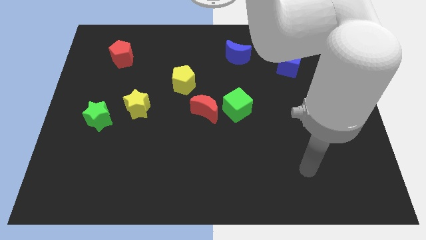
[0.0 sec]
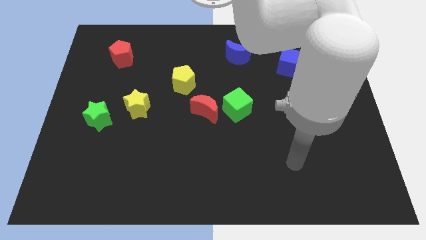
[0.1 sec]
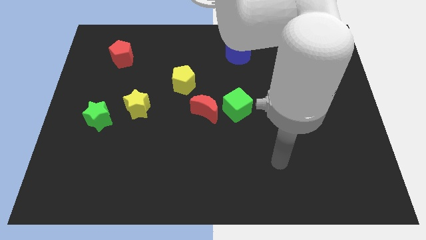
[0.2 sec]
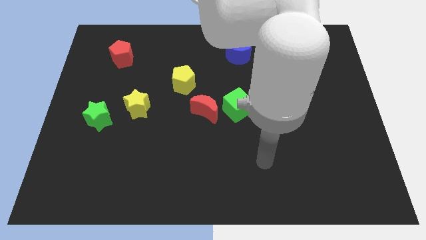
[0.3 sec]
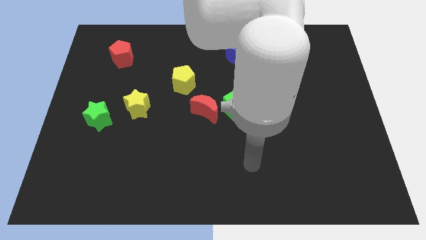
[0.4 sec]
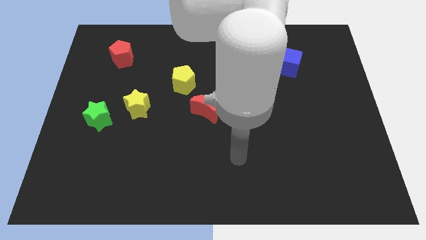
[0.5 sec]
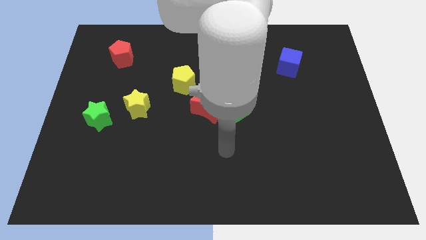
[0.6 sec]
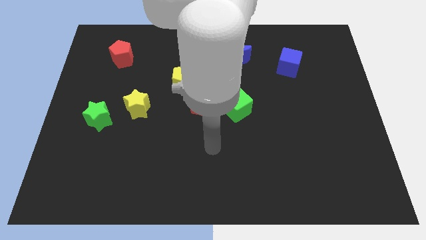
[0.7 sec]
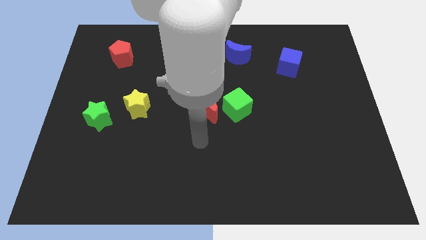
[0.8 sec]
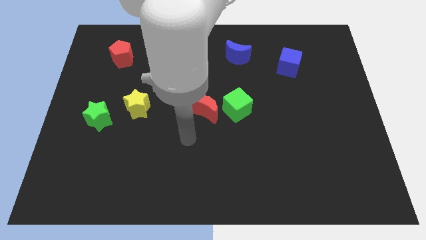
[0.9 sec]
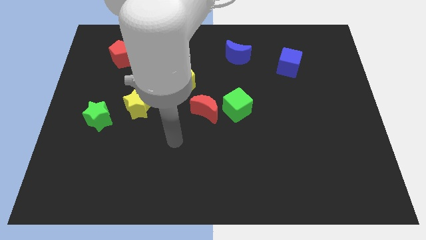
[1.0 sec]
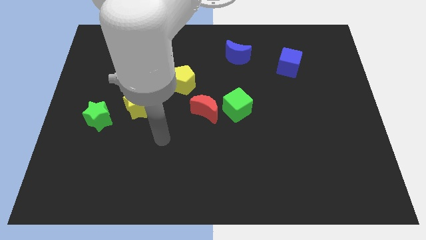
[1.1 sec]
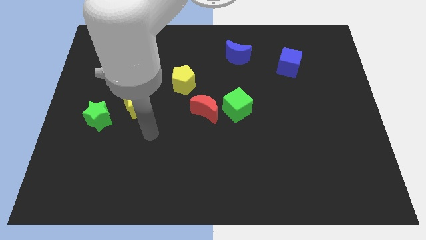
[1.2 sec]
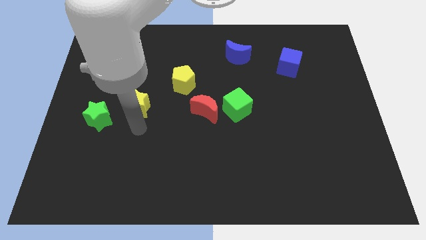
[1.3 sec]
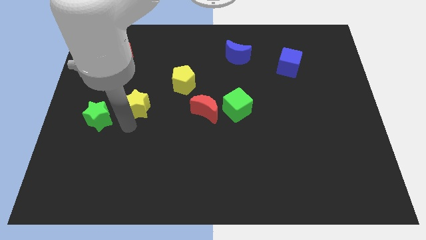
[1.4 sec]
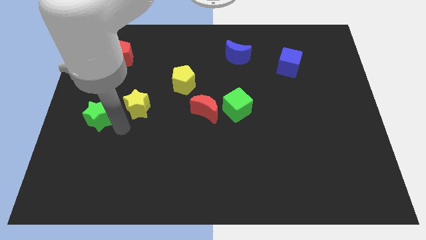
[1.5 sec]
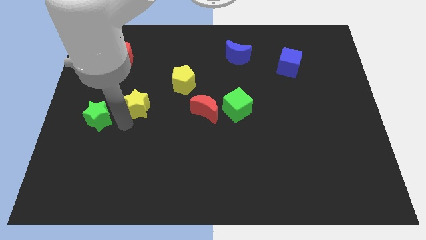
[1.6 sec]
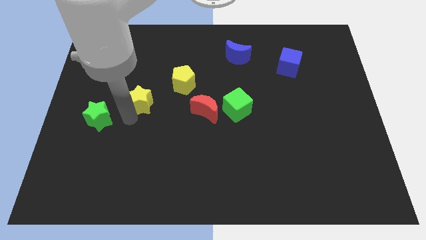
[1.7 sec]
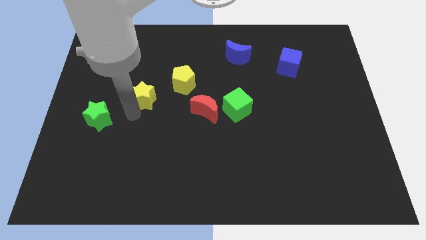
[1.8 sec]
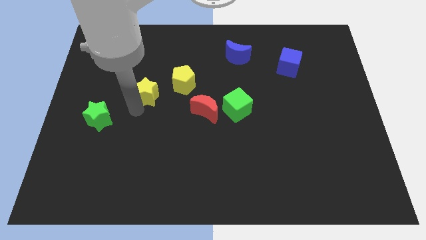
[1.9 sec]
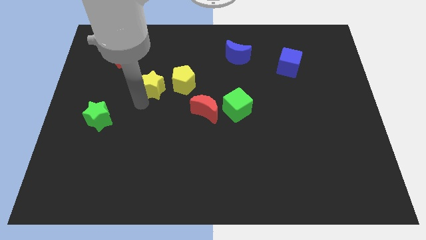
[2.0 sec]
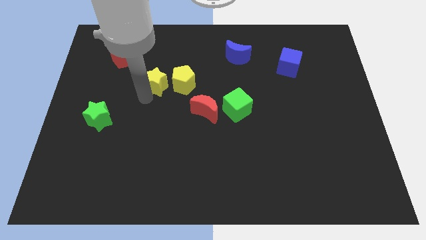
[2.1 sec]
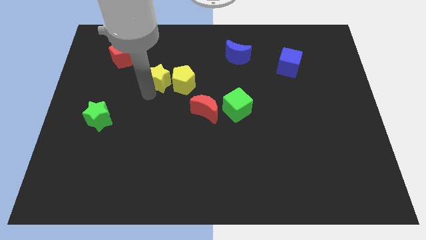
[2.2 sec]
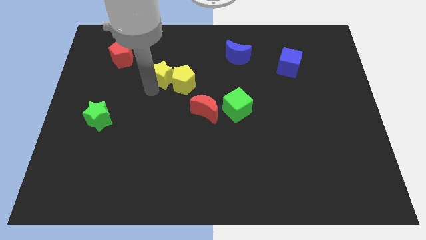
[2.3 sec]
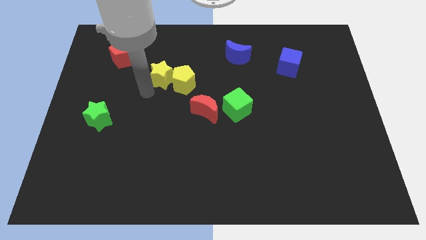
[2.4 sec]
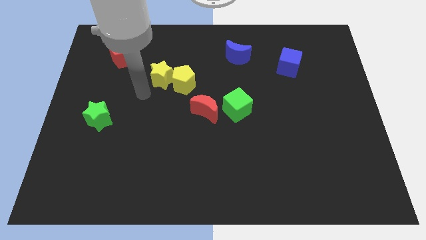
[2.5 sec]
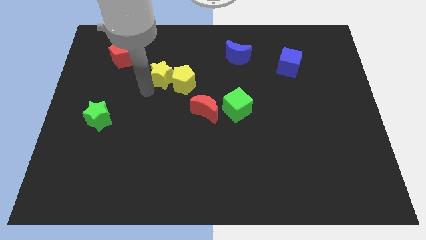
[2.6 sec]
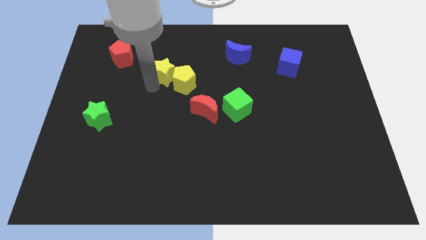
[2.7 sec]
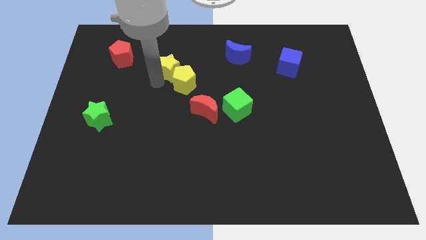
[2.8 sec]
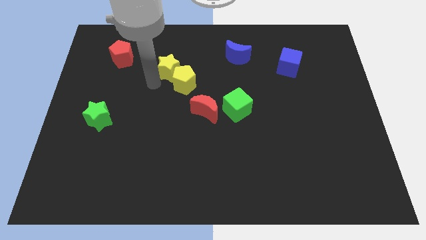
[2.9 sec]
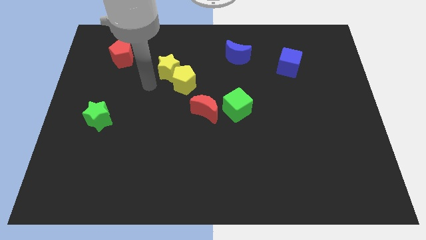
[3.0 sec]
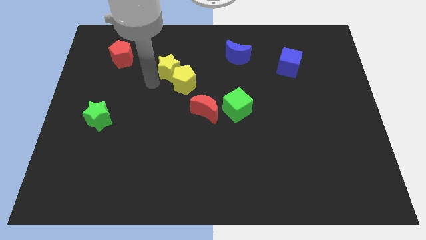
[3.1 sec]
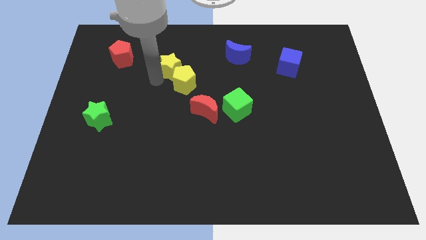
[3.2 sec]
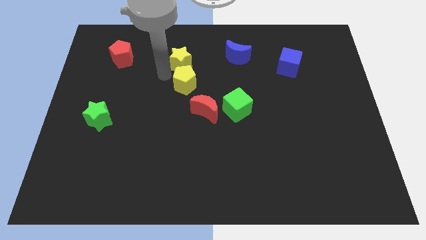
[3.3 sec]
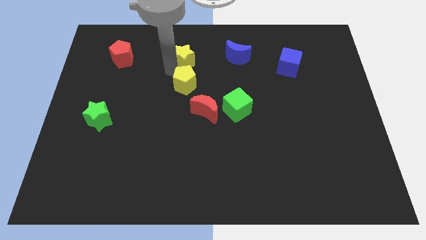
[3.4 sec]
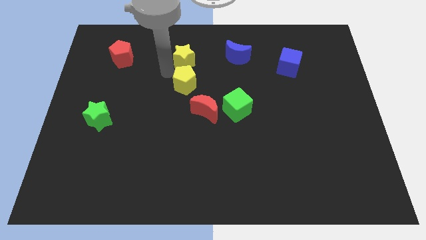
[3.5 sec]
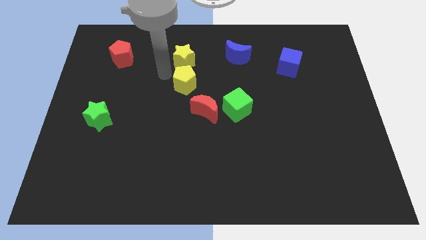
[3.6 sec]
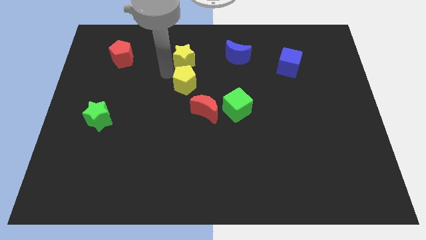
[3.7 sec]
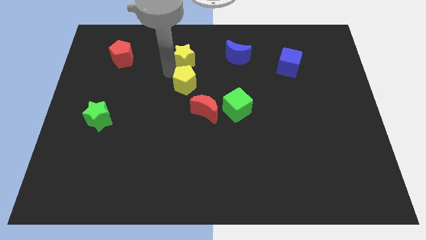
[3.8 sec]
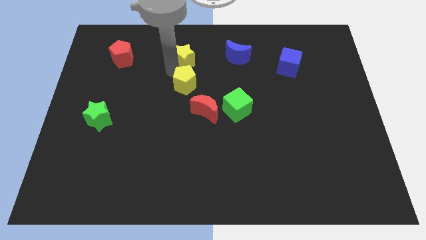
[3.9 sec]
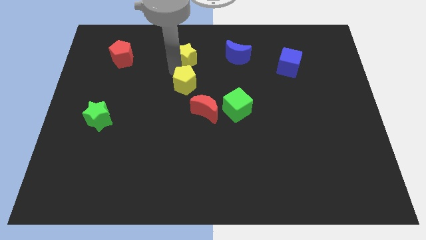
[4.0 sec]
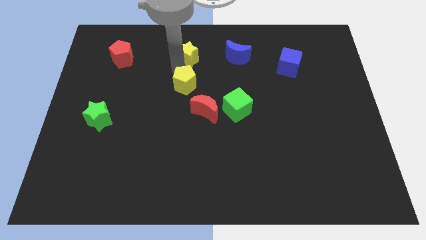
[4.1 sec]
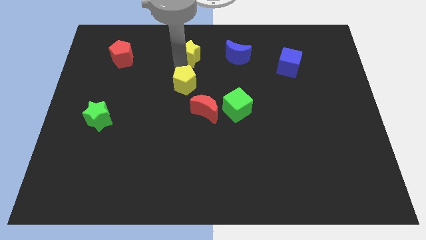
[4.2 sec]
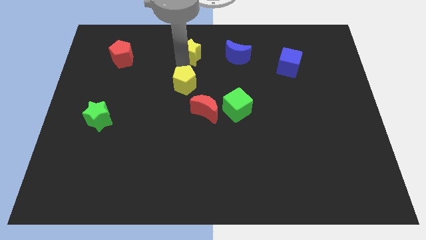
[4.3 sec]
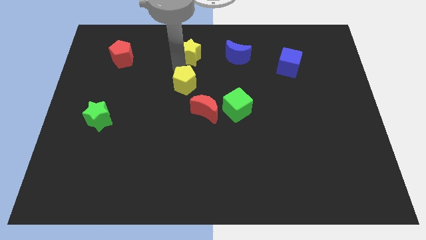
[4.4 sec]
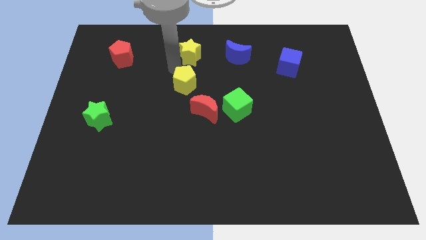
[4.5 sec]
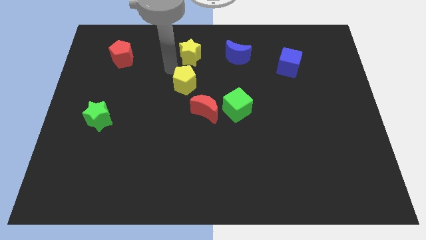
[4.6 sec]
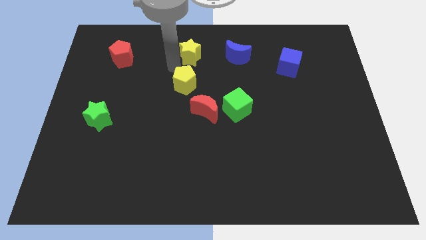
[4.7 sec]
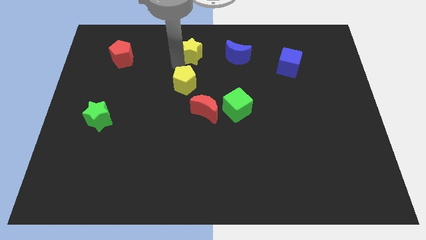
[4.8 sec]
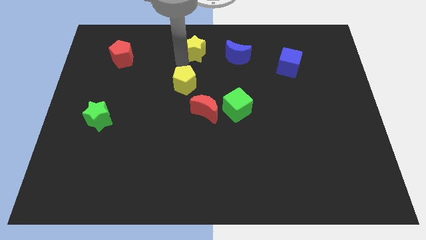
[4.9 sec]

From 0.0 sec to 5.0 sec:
put the yellow star to the top side

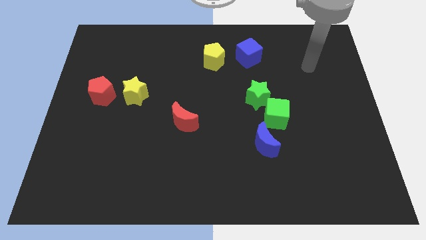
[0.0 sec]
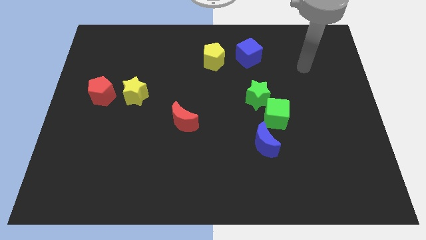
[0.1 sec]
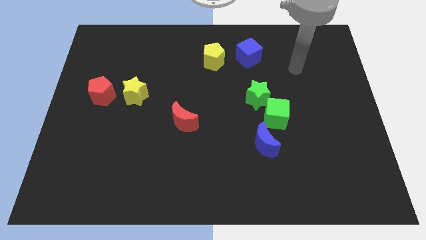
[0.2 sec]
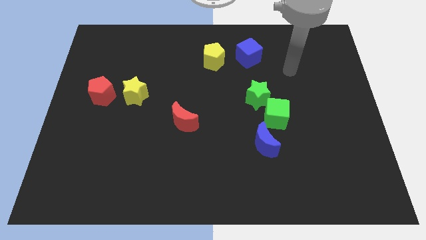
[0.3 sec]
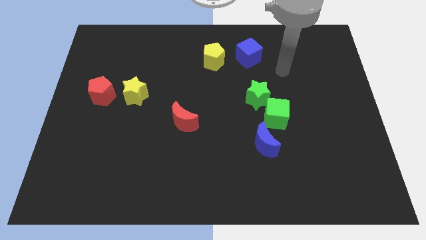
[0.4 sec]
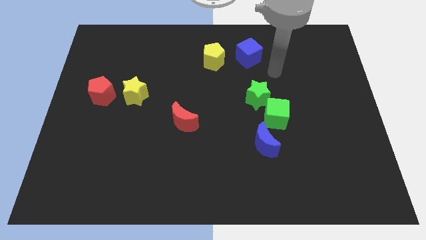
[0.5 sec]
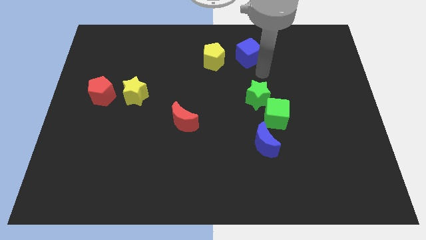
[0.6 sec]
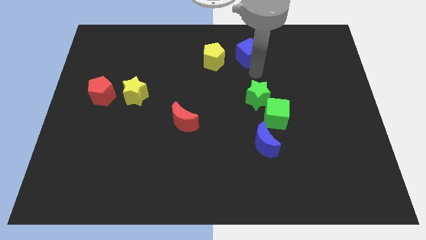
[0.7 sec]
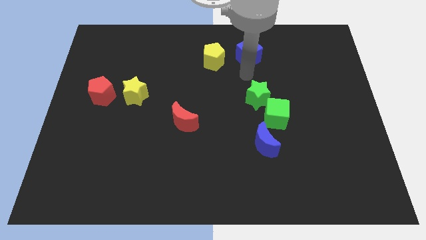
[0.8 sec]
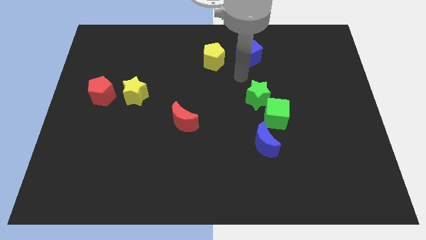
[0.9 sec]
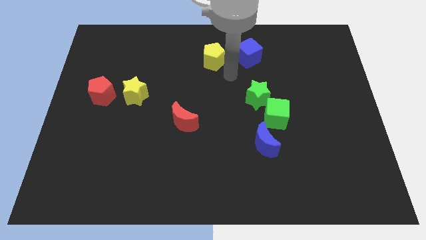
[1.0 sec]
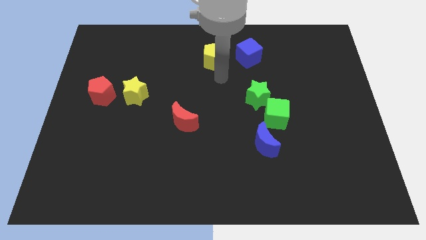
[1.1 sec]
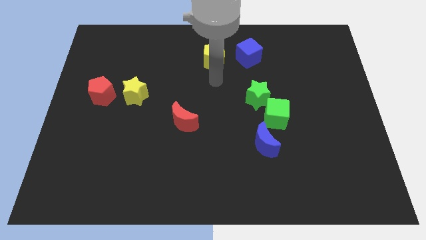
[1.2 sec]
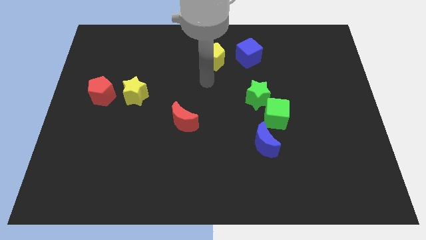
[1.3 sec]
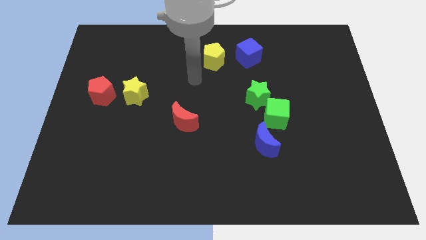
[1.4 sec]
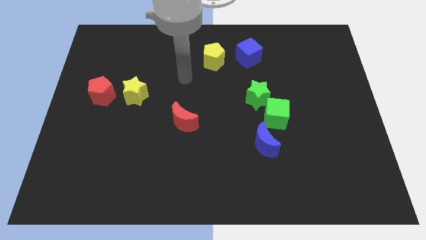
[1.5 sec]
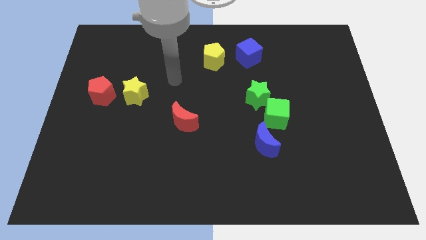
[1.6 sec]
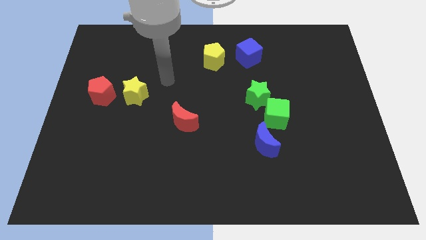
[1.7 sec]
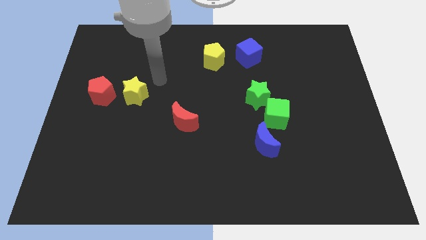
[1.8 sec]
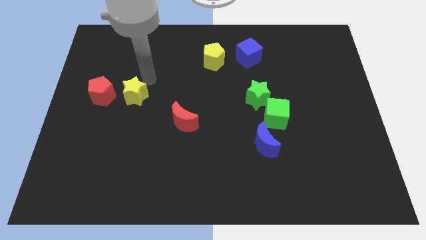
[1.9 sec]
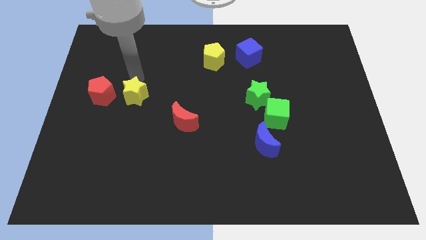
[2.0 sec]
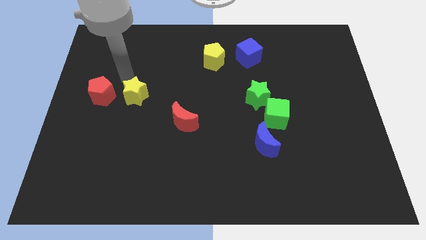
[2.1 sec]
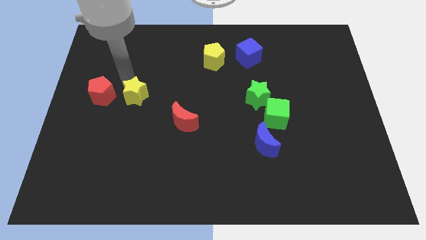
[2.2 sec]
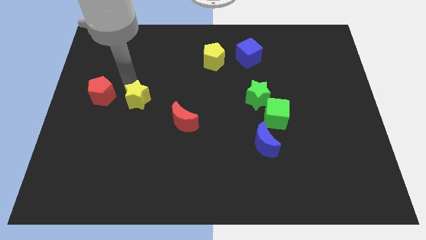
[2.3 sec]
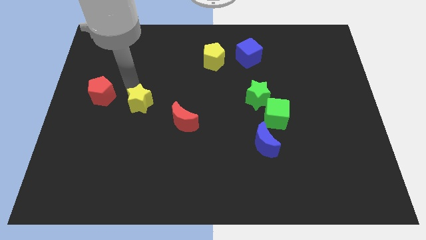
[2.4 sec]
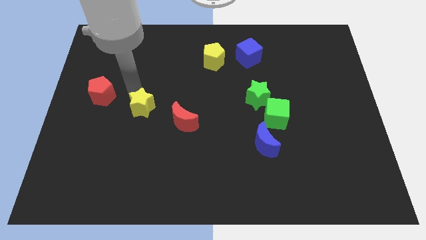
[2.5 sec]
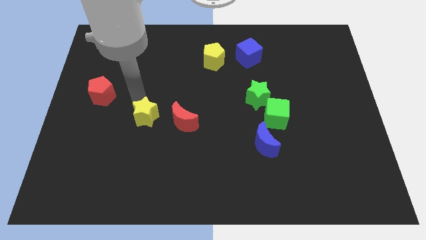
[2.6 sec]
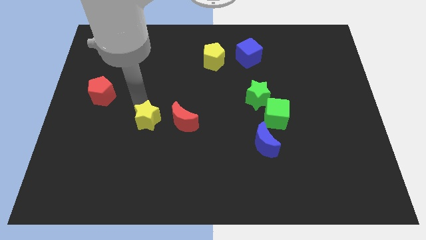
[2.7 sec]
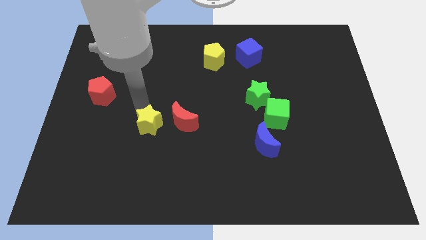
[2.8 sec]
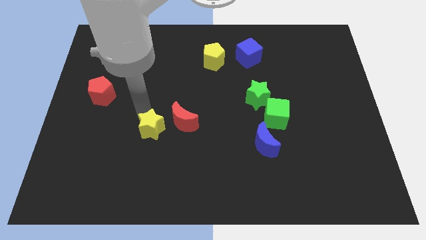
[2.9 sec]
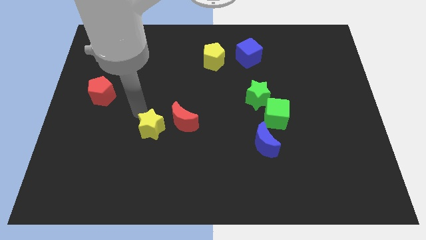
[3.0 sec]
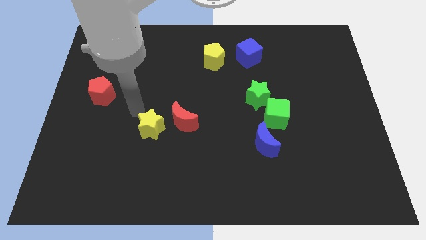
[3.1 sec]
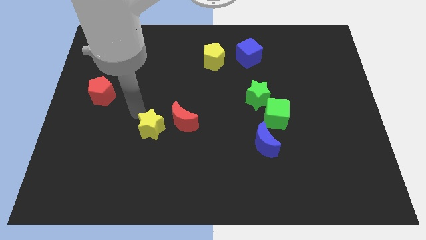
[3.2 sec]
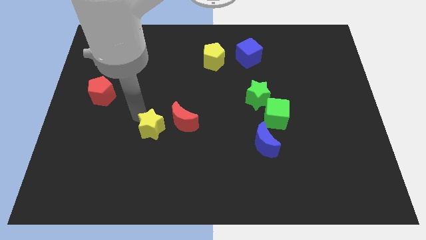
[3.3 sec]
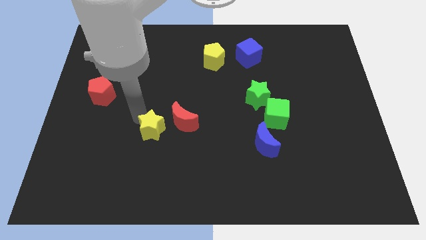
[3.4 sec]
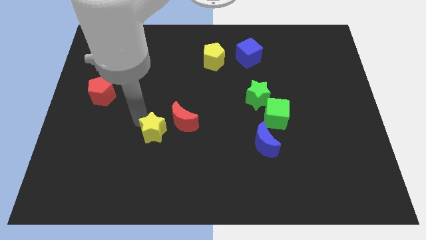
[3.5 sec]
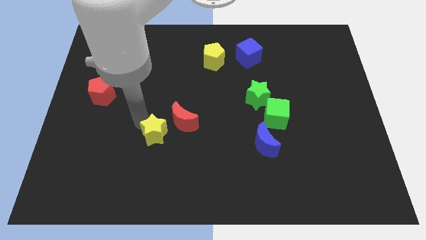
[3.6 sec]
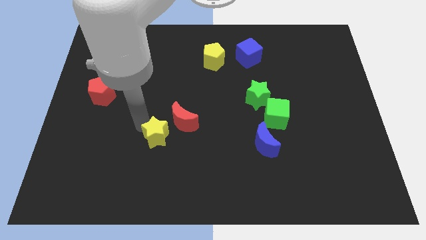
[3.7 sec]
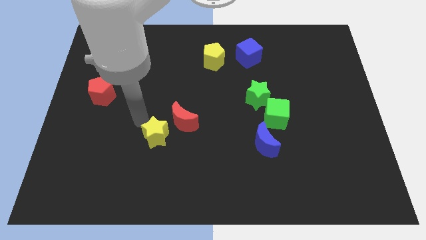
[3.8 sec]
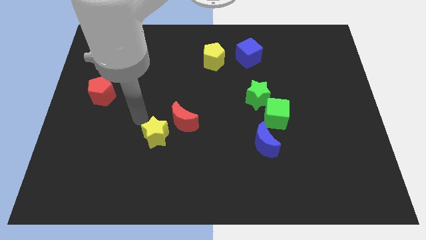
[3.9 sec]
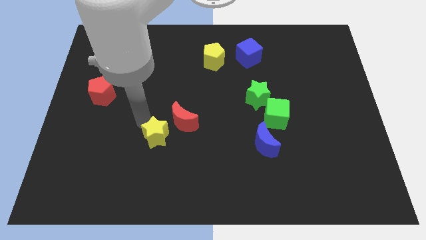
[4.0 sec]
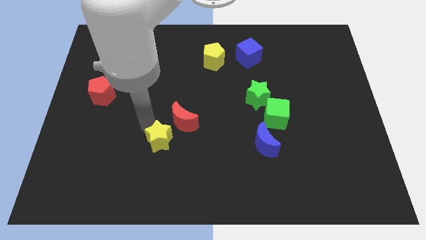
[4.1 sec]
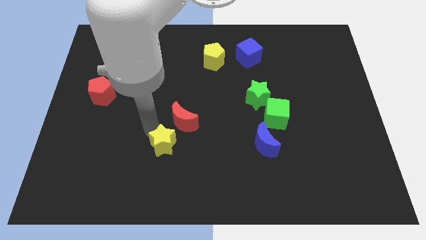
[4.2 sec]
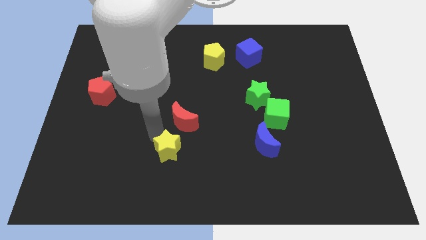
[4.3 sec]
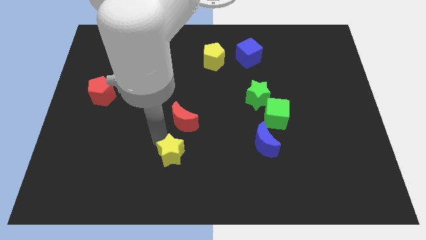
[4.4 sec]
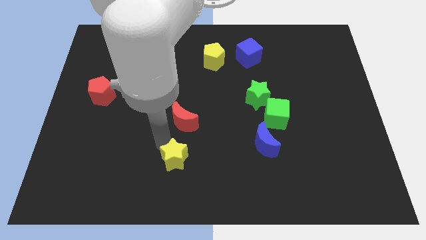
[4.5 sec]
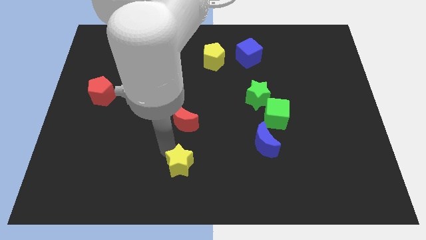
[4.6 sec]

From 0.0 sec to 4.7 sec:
slide the yellow star to the bottom side
